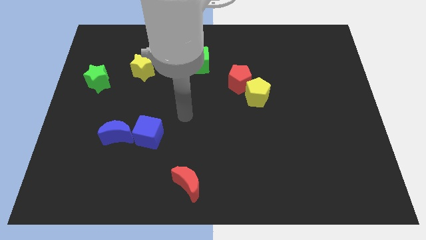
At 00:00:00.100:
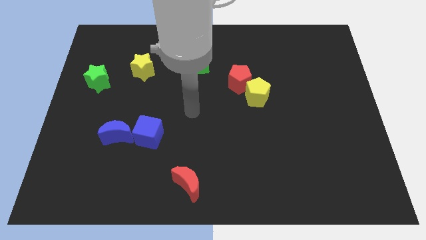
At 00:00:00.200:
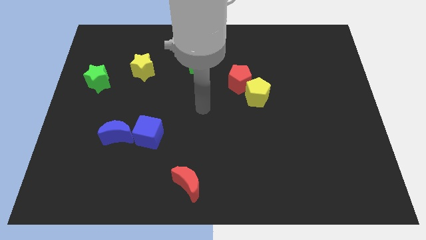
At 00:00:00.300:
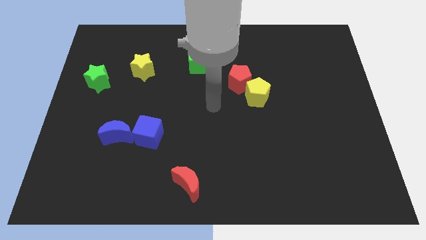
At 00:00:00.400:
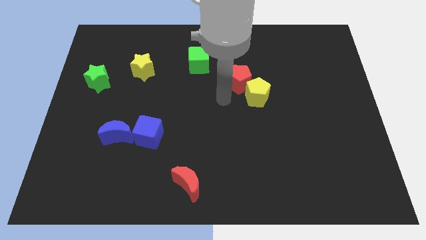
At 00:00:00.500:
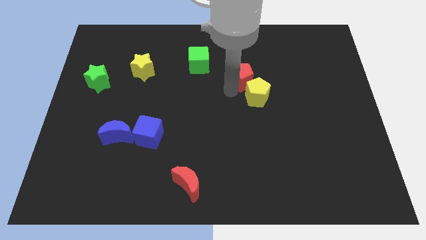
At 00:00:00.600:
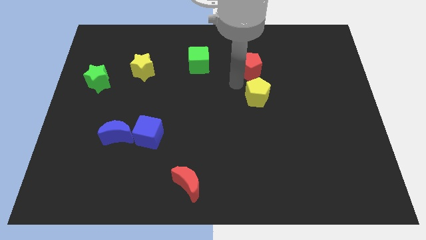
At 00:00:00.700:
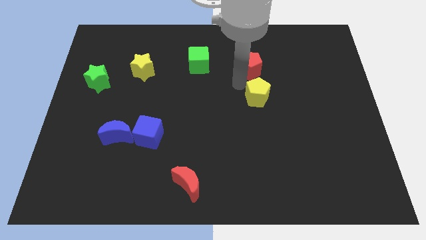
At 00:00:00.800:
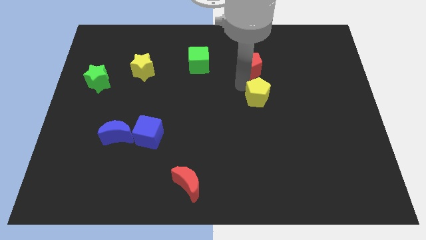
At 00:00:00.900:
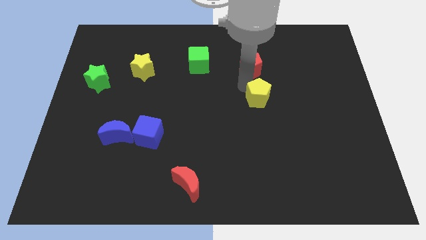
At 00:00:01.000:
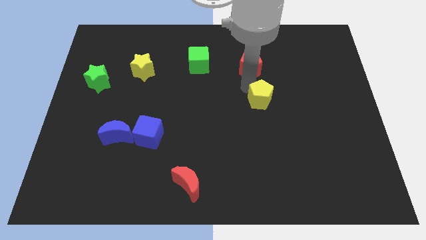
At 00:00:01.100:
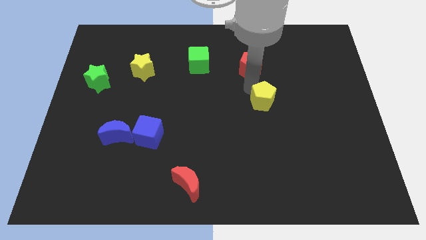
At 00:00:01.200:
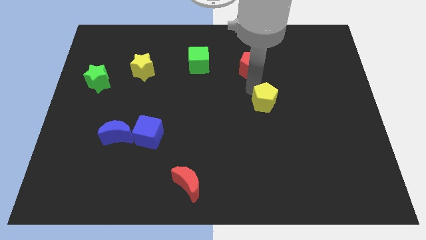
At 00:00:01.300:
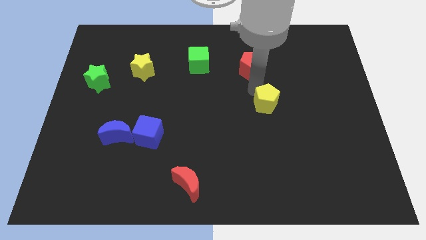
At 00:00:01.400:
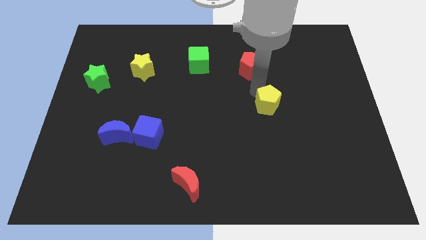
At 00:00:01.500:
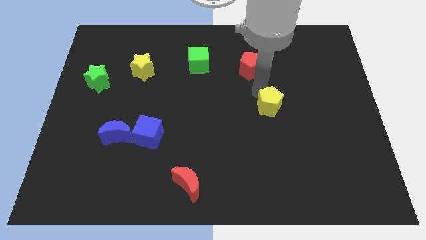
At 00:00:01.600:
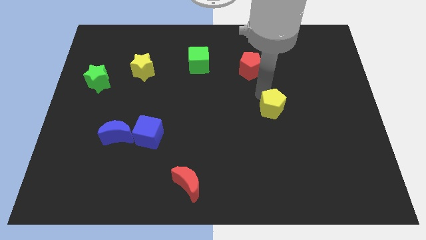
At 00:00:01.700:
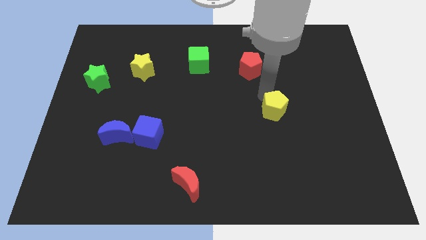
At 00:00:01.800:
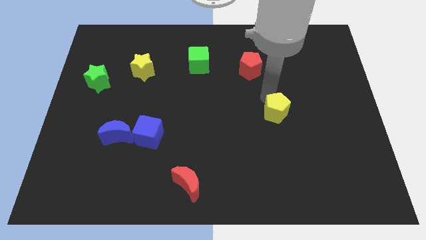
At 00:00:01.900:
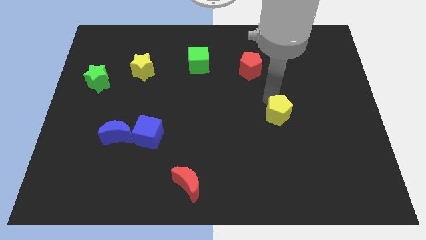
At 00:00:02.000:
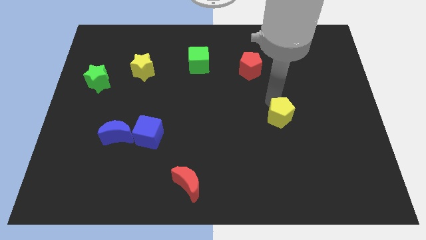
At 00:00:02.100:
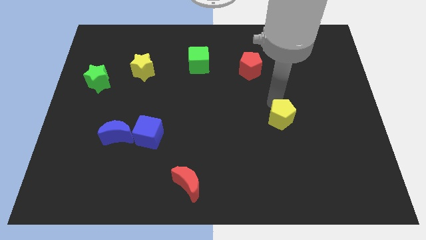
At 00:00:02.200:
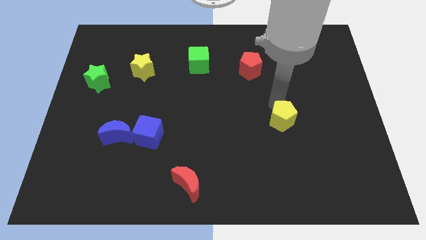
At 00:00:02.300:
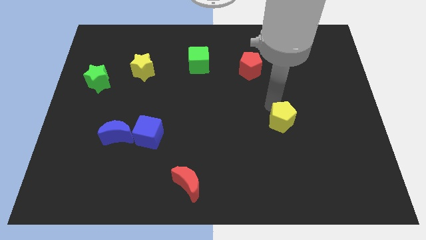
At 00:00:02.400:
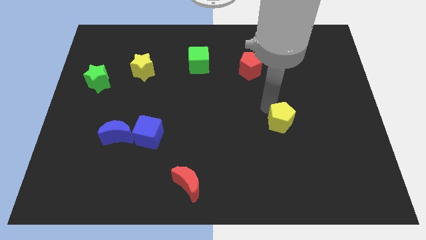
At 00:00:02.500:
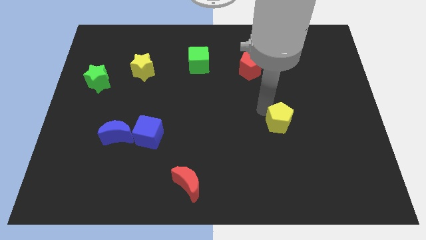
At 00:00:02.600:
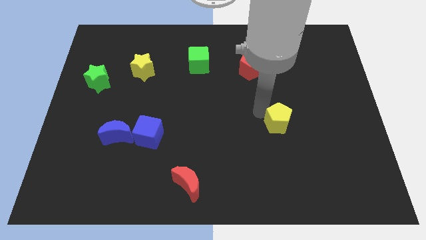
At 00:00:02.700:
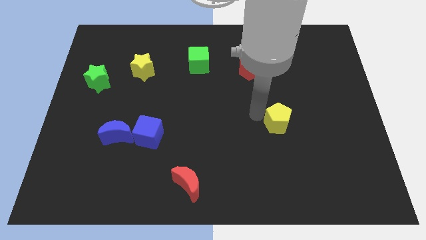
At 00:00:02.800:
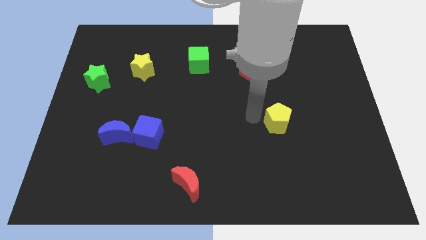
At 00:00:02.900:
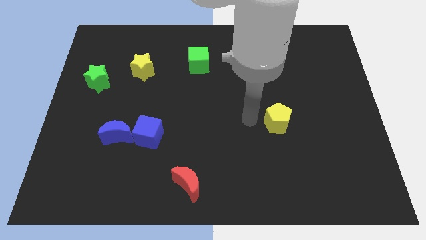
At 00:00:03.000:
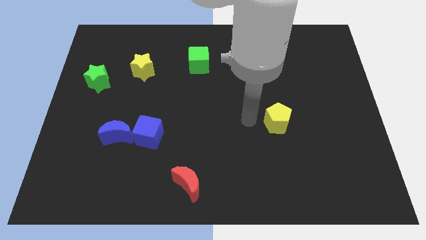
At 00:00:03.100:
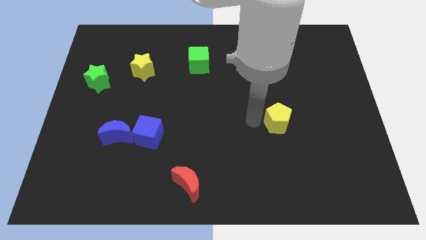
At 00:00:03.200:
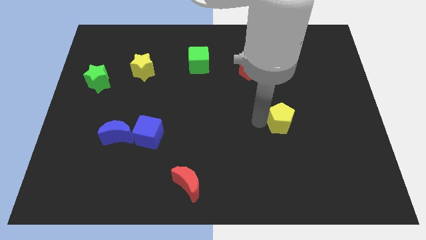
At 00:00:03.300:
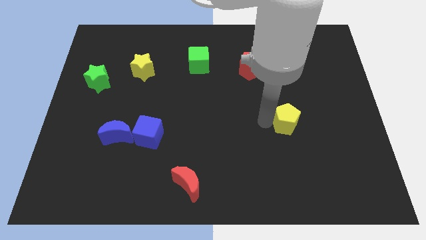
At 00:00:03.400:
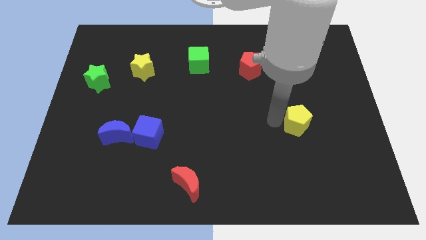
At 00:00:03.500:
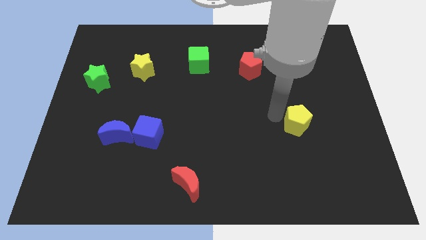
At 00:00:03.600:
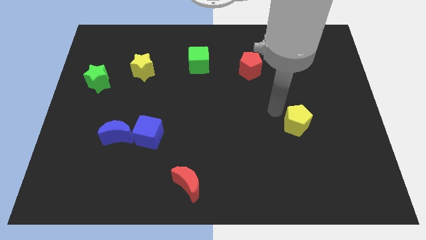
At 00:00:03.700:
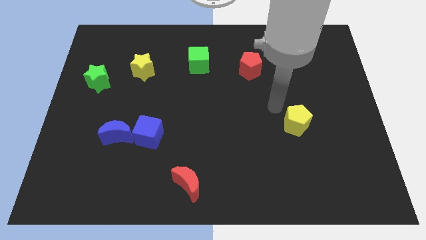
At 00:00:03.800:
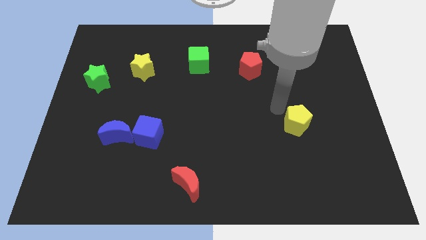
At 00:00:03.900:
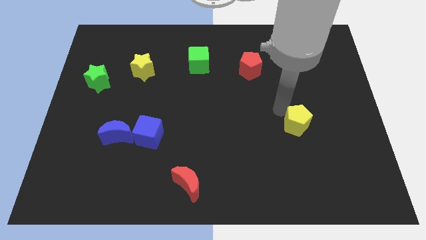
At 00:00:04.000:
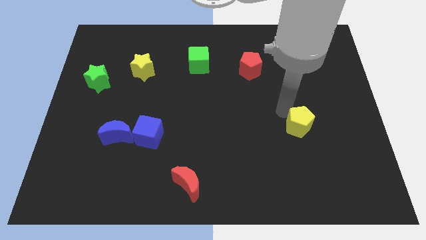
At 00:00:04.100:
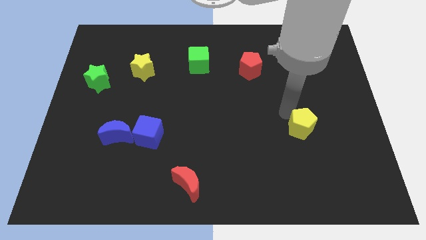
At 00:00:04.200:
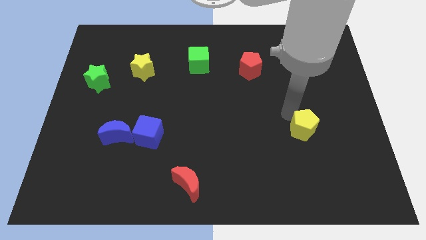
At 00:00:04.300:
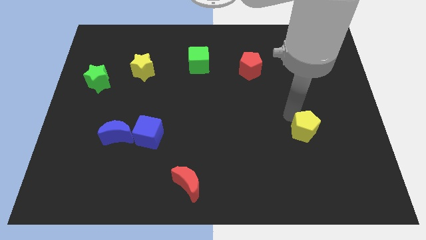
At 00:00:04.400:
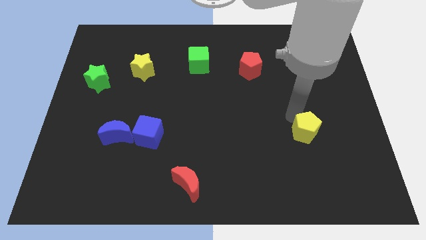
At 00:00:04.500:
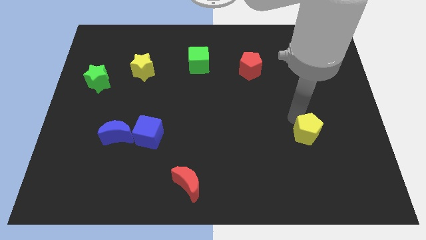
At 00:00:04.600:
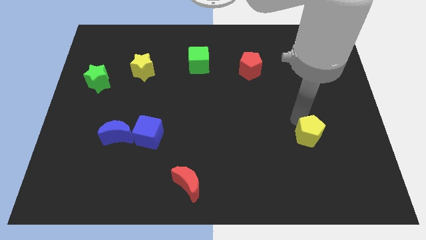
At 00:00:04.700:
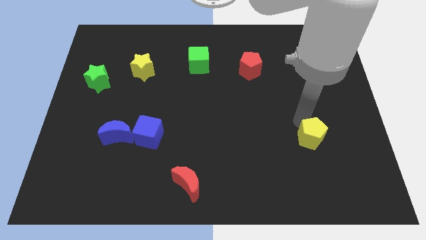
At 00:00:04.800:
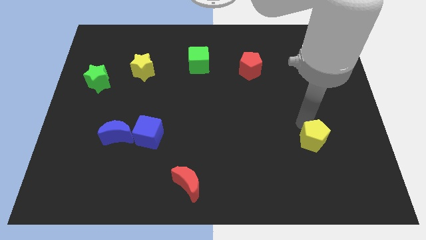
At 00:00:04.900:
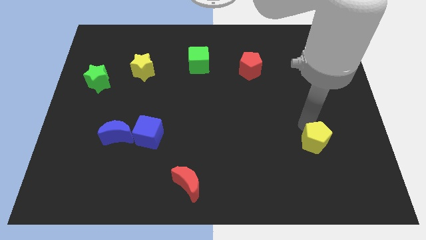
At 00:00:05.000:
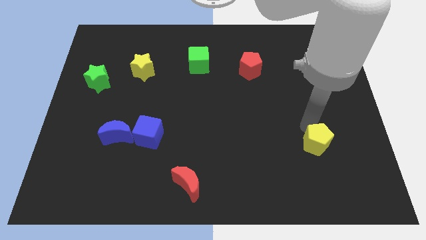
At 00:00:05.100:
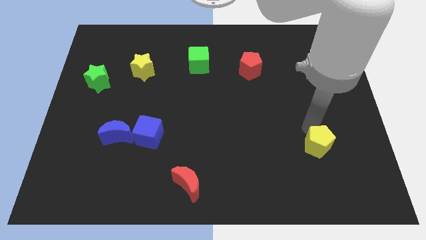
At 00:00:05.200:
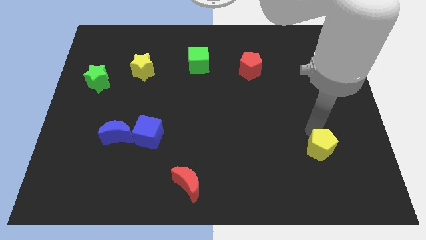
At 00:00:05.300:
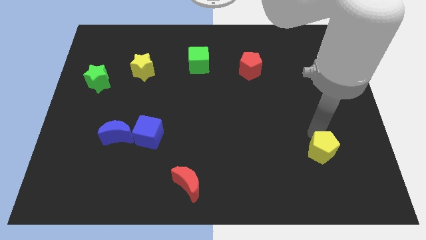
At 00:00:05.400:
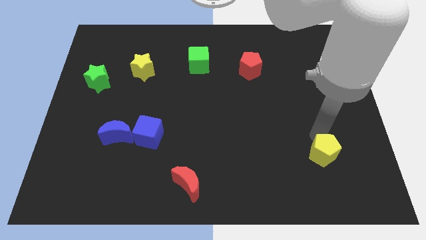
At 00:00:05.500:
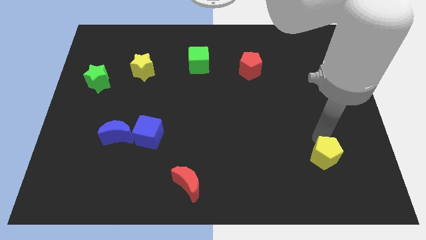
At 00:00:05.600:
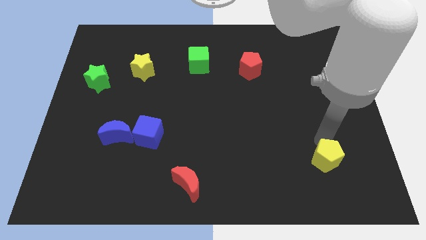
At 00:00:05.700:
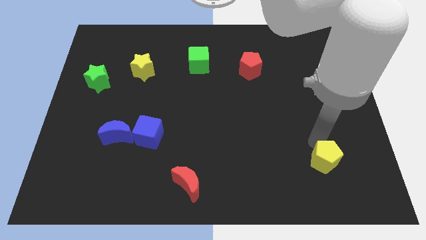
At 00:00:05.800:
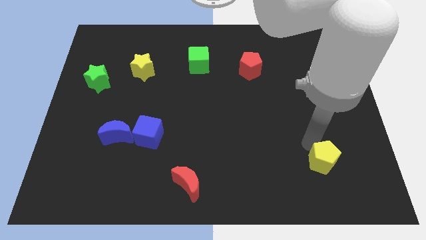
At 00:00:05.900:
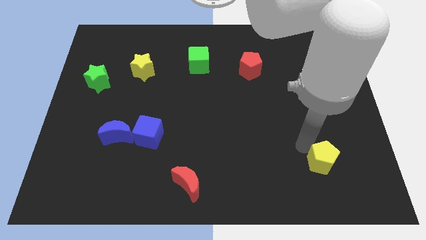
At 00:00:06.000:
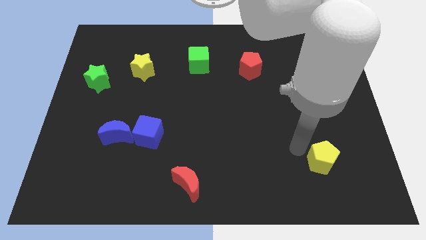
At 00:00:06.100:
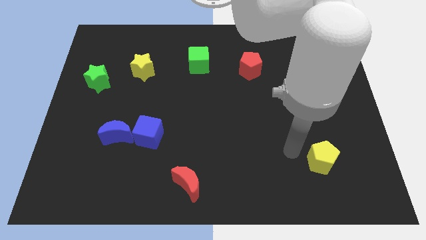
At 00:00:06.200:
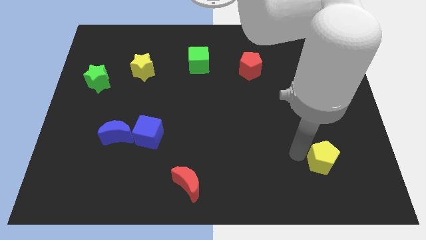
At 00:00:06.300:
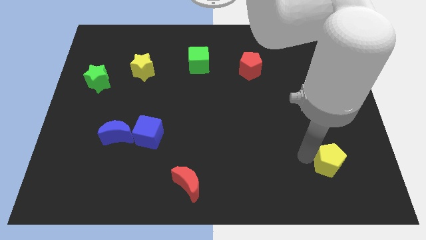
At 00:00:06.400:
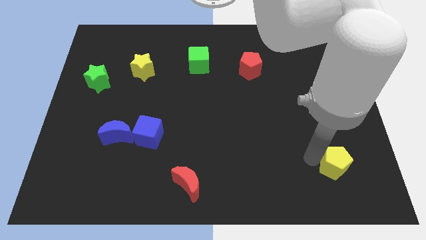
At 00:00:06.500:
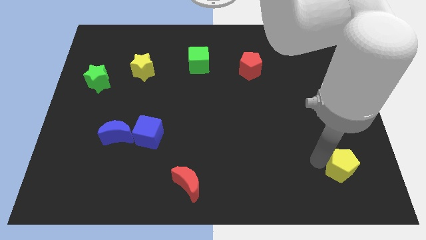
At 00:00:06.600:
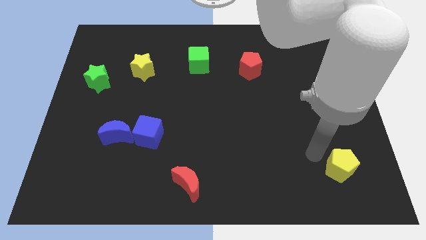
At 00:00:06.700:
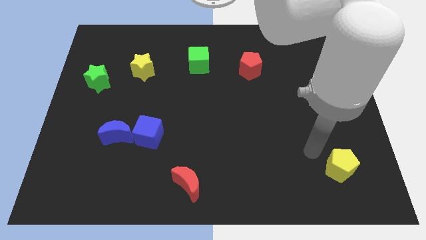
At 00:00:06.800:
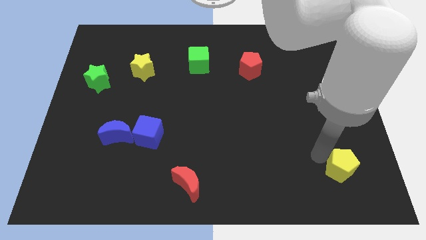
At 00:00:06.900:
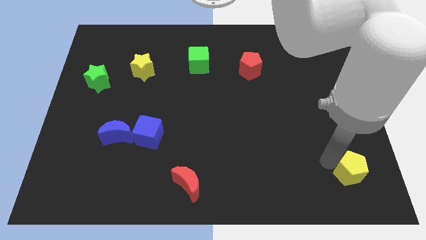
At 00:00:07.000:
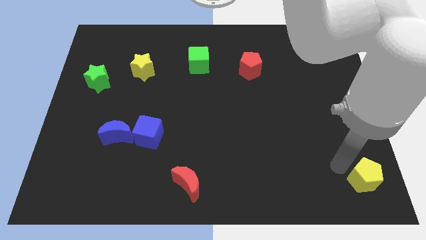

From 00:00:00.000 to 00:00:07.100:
put the yellow pentagon to the bottom right of the board
